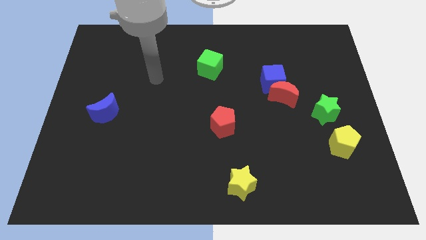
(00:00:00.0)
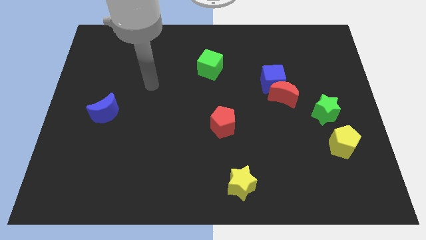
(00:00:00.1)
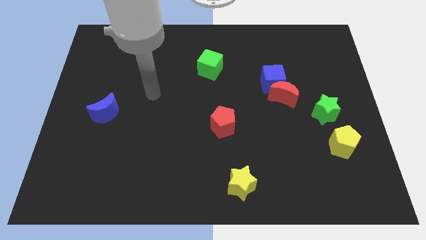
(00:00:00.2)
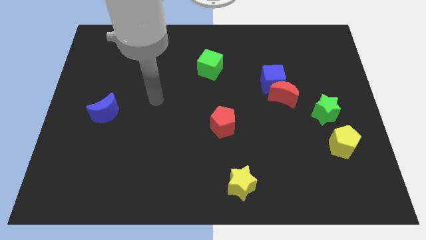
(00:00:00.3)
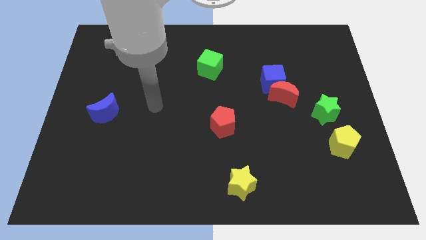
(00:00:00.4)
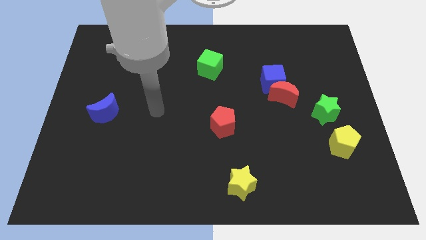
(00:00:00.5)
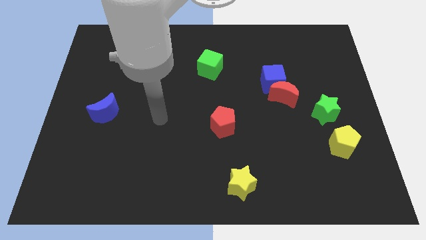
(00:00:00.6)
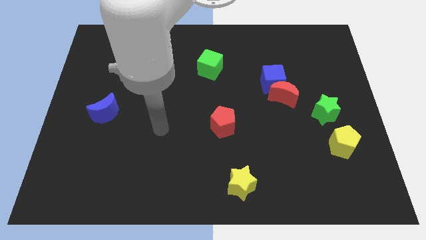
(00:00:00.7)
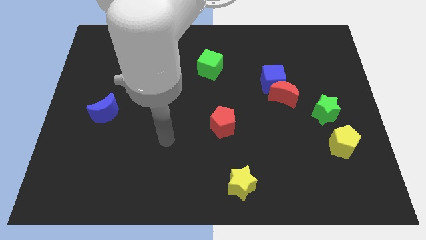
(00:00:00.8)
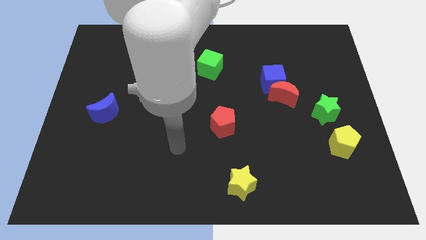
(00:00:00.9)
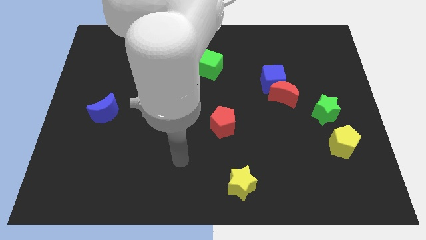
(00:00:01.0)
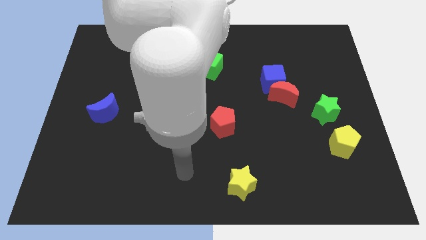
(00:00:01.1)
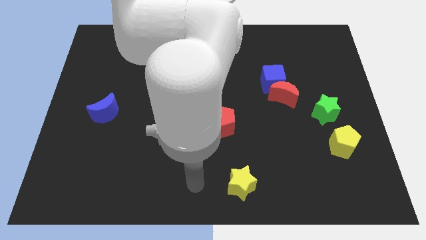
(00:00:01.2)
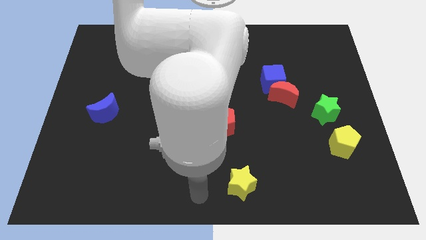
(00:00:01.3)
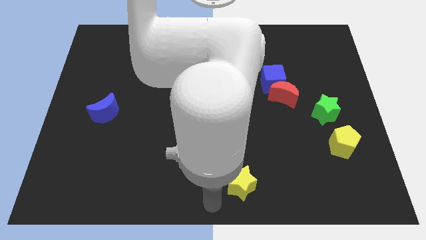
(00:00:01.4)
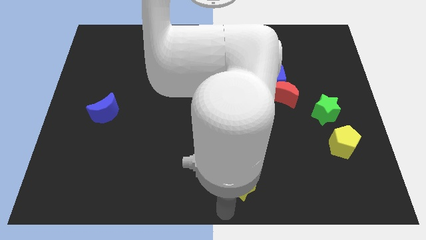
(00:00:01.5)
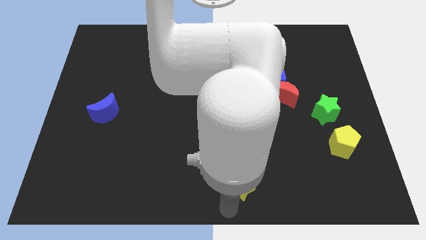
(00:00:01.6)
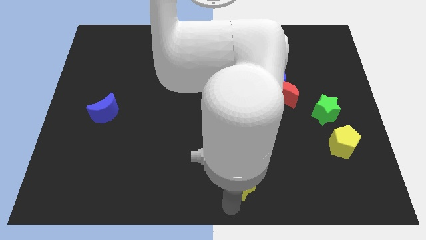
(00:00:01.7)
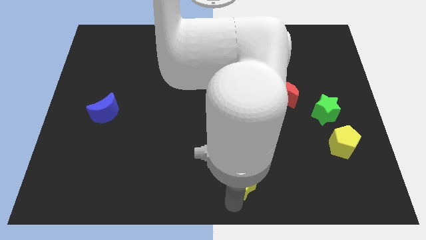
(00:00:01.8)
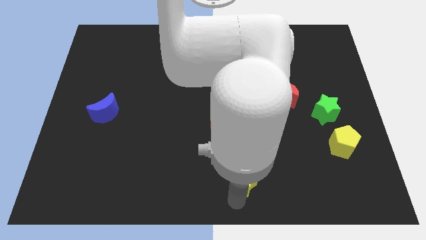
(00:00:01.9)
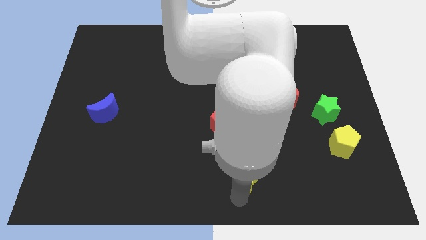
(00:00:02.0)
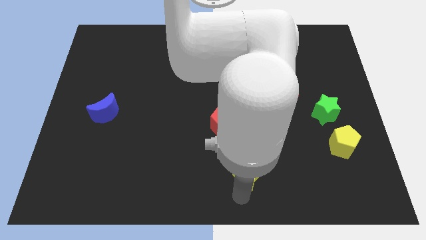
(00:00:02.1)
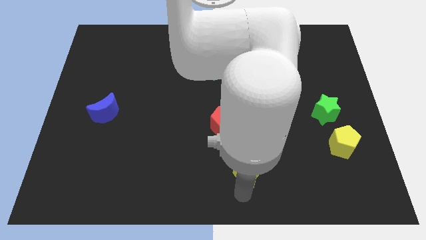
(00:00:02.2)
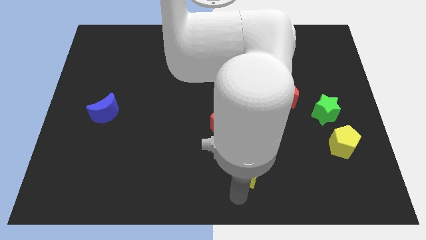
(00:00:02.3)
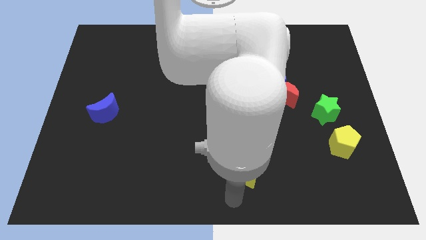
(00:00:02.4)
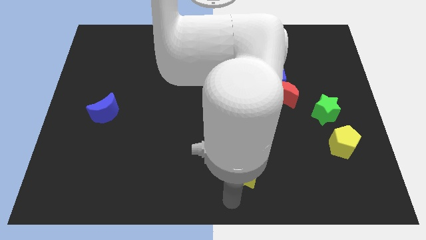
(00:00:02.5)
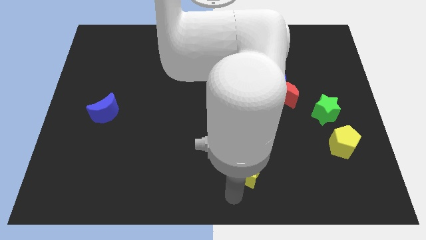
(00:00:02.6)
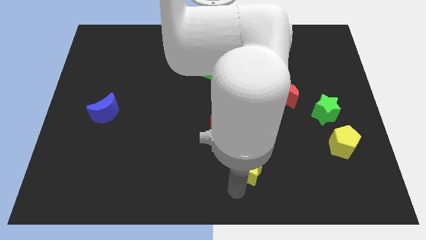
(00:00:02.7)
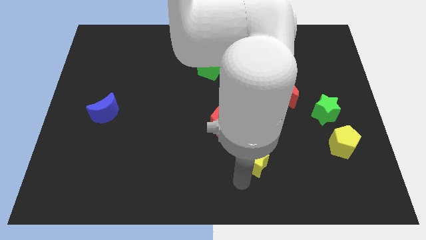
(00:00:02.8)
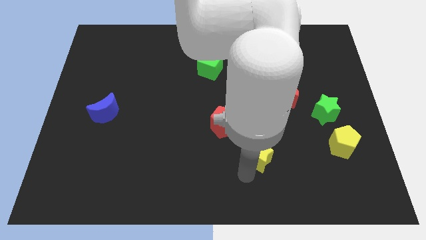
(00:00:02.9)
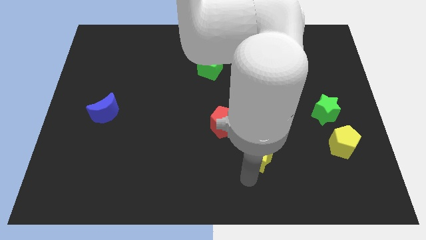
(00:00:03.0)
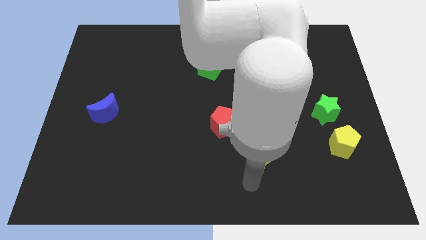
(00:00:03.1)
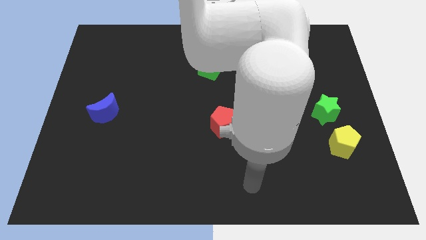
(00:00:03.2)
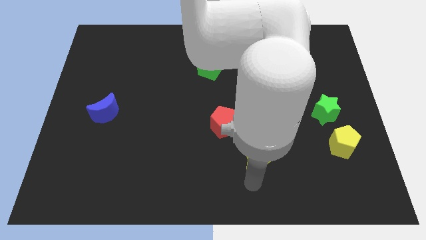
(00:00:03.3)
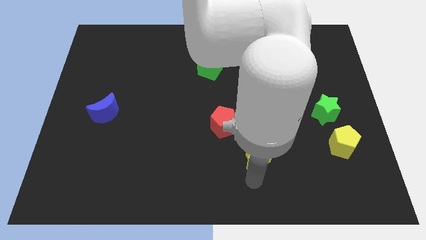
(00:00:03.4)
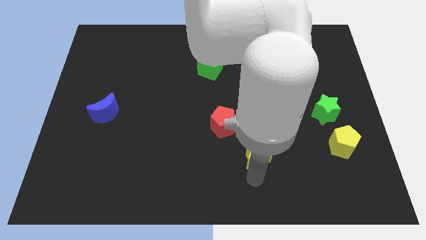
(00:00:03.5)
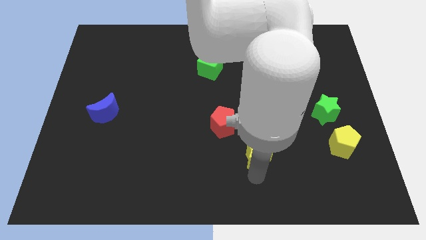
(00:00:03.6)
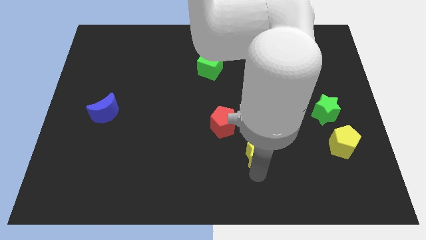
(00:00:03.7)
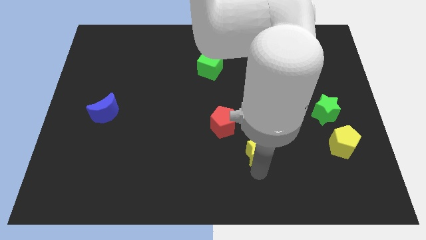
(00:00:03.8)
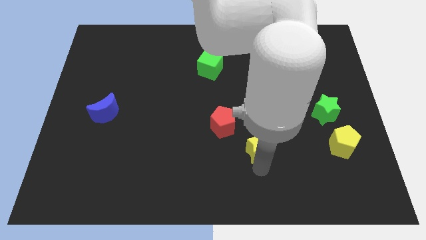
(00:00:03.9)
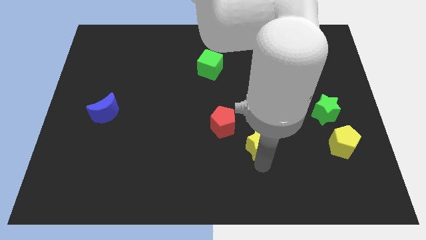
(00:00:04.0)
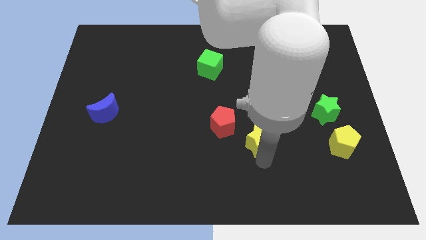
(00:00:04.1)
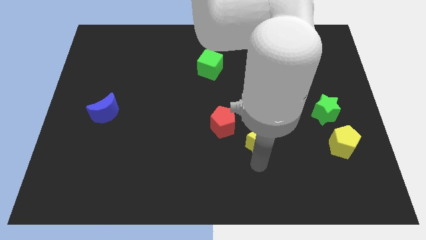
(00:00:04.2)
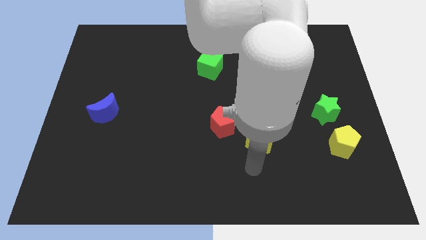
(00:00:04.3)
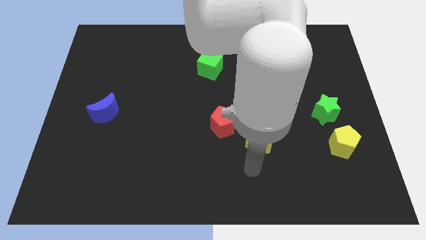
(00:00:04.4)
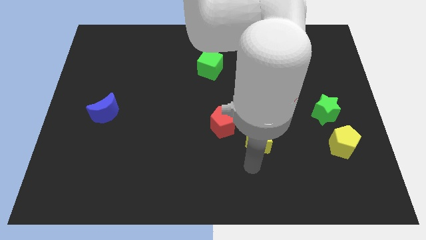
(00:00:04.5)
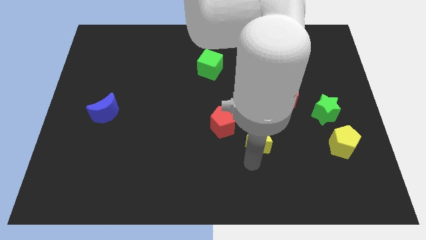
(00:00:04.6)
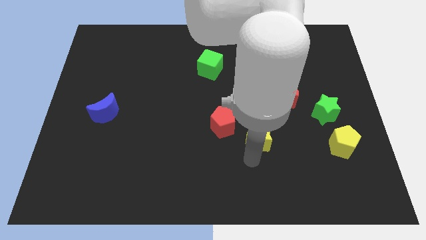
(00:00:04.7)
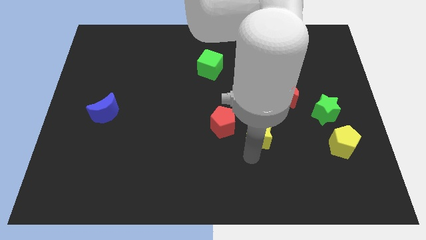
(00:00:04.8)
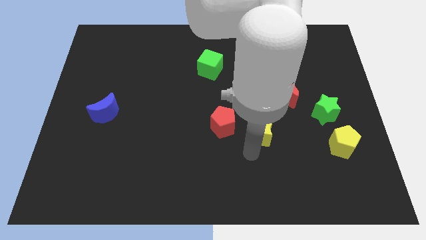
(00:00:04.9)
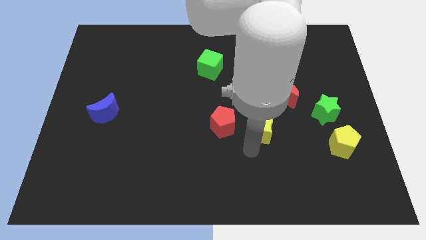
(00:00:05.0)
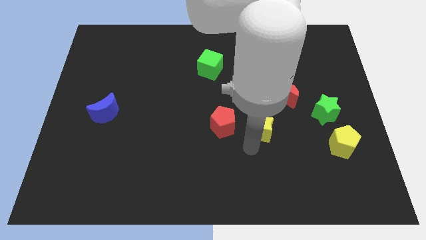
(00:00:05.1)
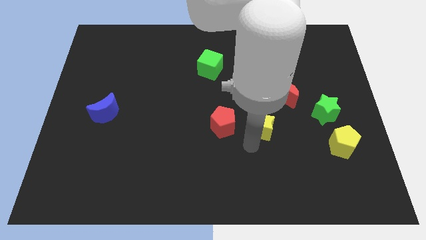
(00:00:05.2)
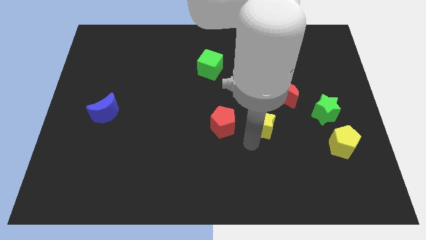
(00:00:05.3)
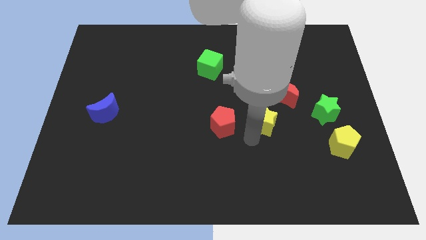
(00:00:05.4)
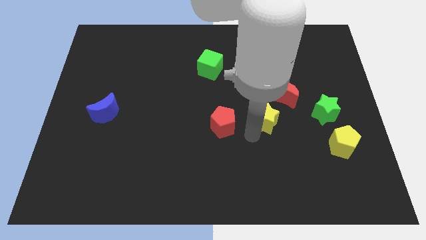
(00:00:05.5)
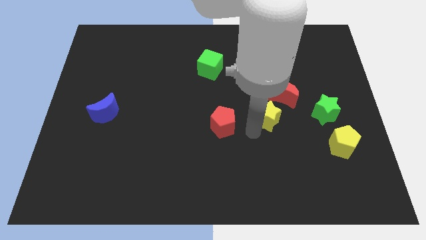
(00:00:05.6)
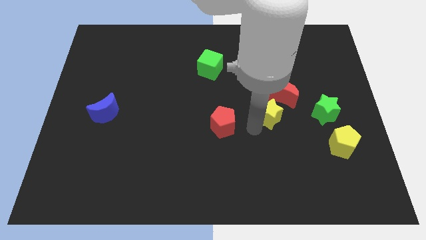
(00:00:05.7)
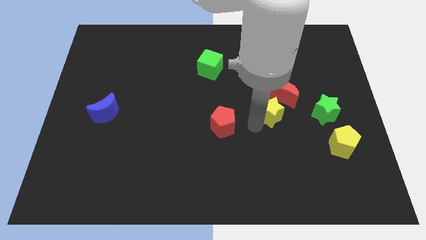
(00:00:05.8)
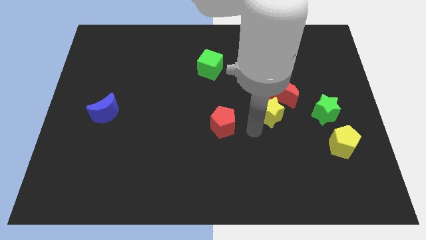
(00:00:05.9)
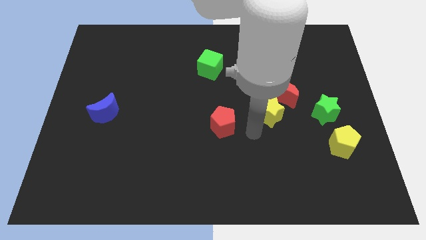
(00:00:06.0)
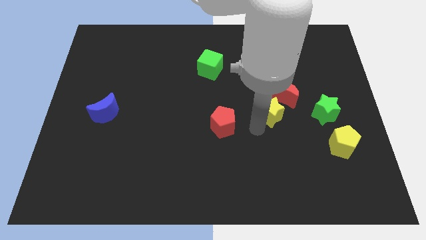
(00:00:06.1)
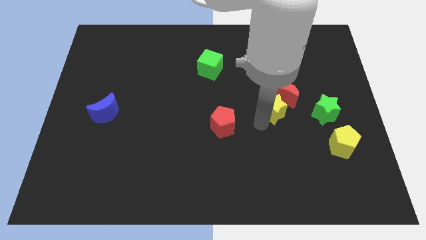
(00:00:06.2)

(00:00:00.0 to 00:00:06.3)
put the yellow star to the red moon
